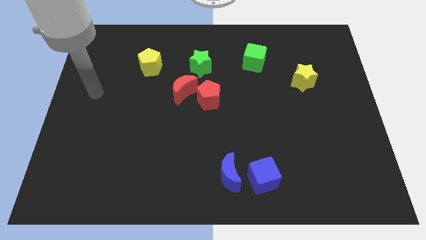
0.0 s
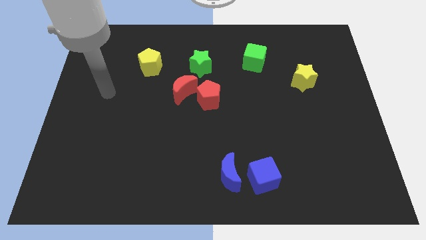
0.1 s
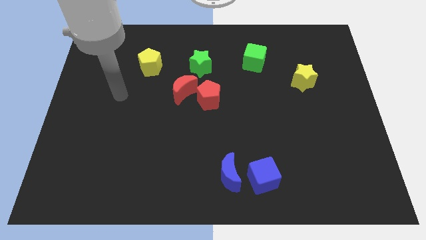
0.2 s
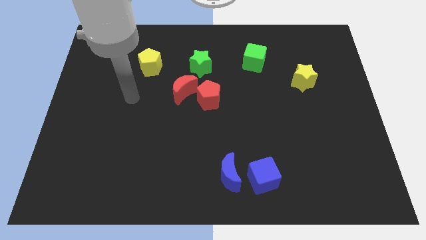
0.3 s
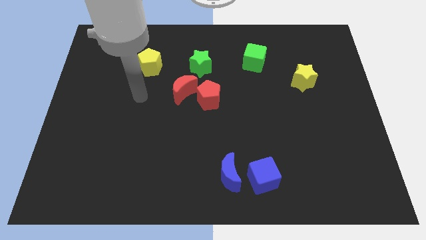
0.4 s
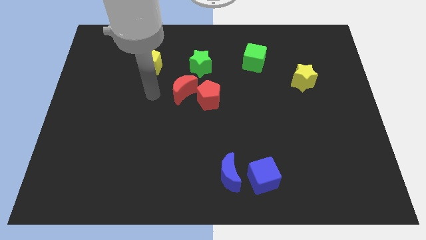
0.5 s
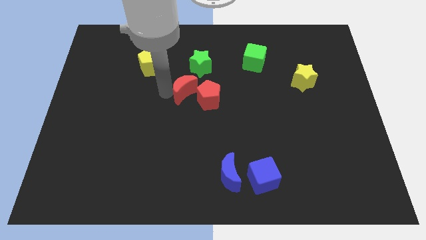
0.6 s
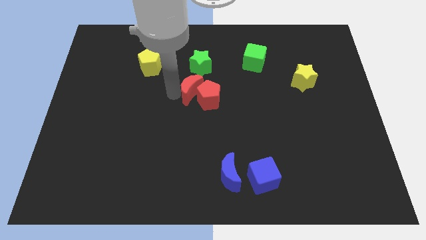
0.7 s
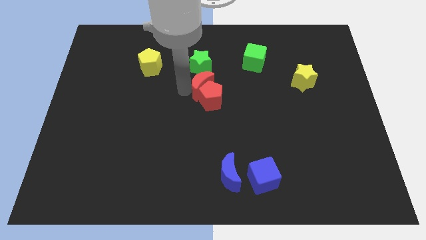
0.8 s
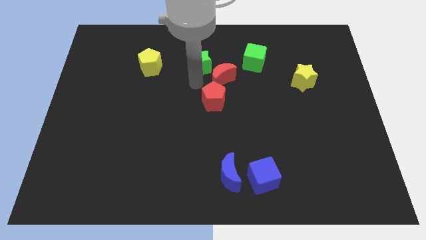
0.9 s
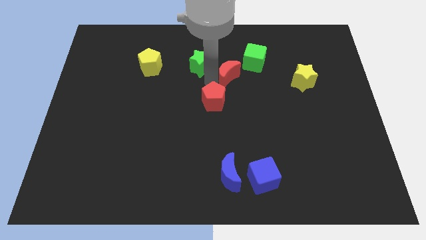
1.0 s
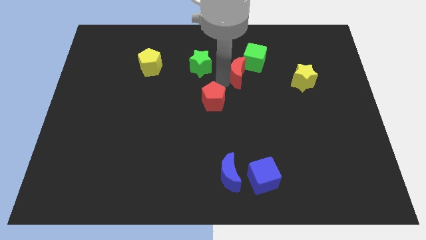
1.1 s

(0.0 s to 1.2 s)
pull the red pentagon apart from the red moon

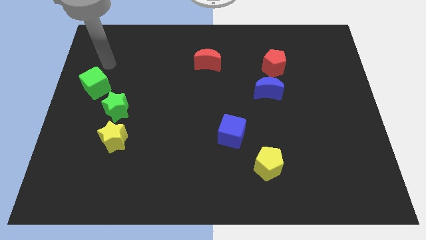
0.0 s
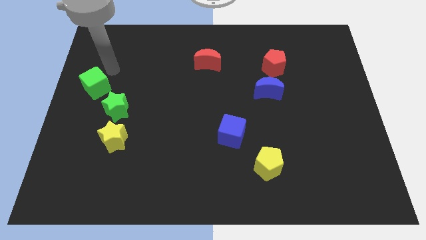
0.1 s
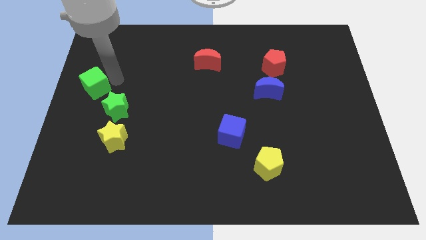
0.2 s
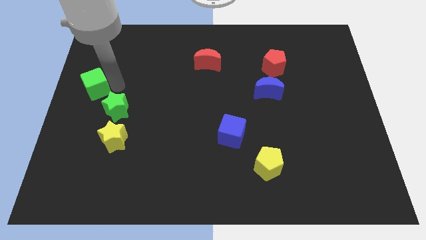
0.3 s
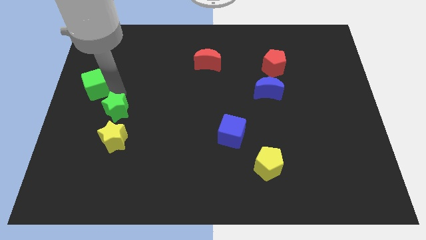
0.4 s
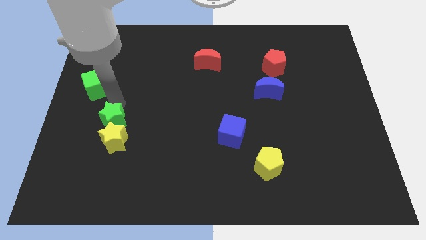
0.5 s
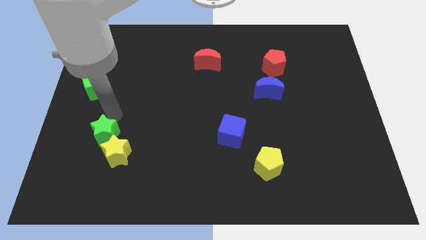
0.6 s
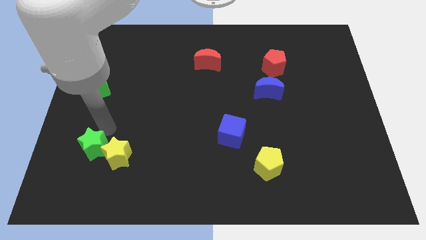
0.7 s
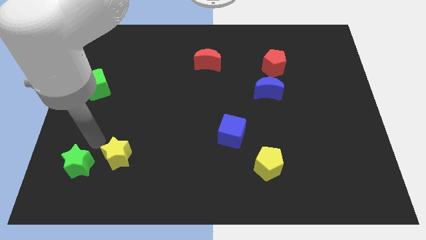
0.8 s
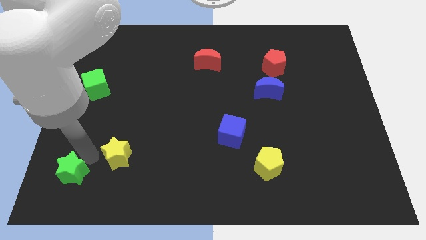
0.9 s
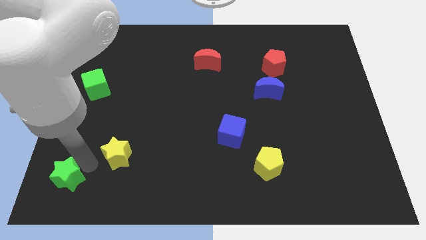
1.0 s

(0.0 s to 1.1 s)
pull the yellow star apart from the green star

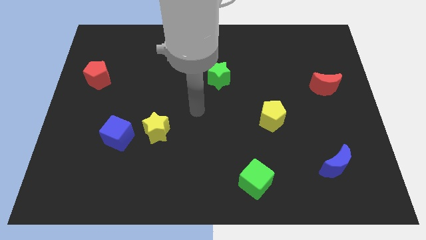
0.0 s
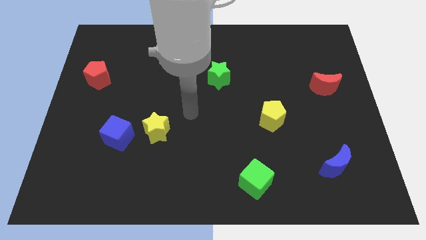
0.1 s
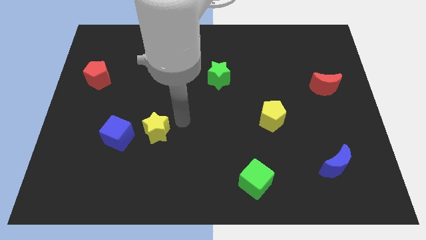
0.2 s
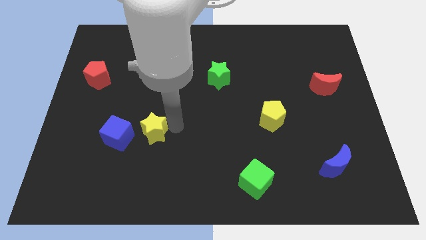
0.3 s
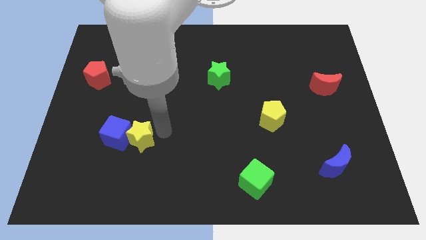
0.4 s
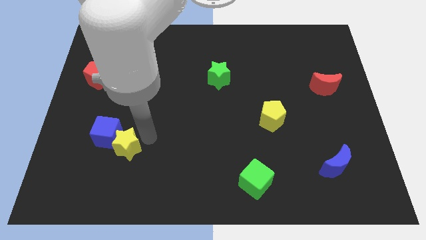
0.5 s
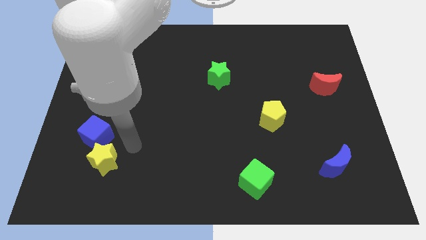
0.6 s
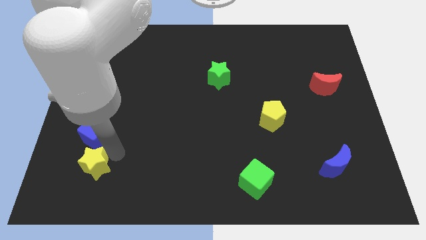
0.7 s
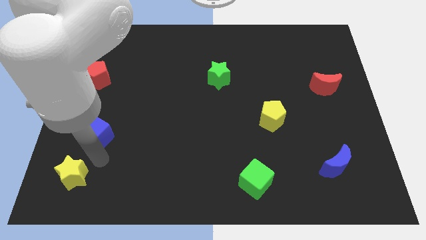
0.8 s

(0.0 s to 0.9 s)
move the blue cube away from the yellow star

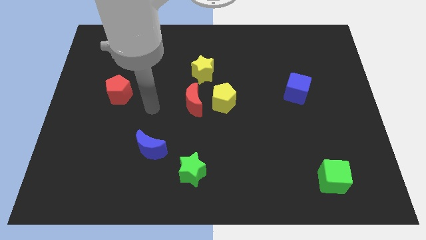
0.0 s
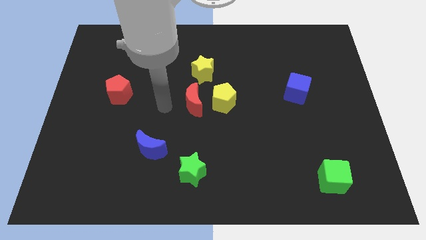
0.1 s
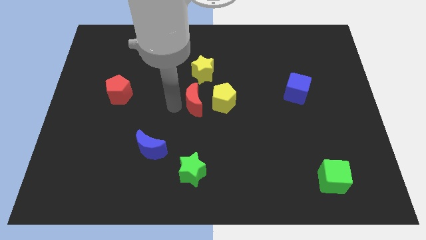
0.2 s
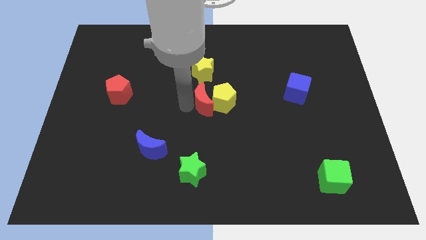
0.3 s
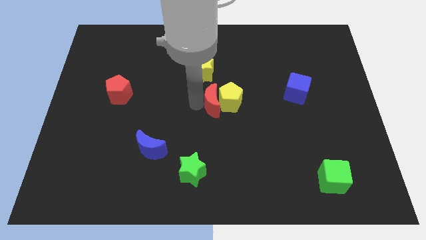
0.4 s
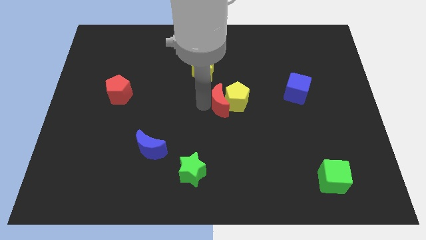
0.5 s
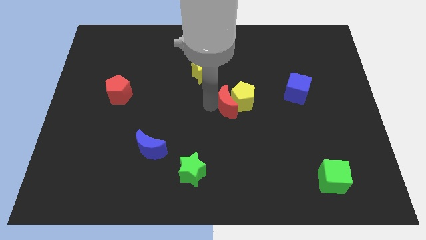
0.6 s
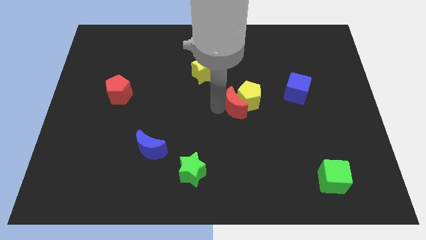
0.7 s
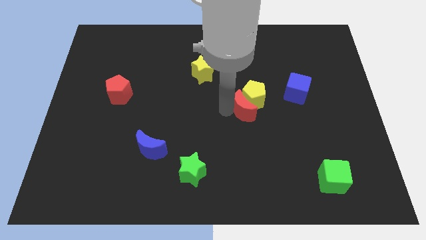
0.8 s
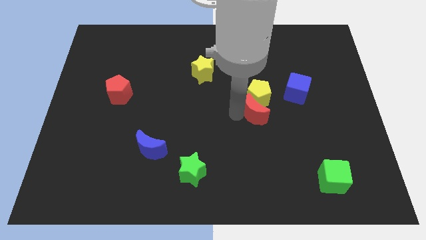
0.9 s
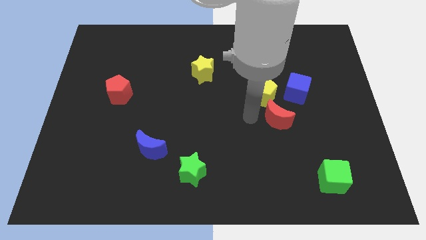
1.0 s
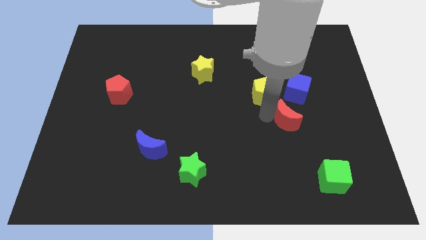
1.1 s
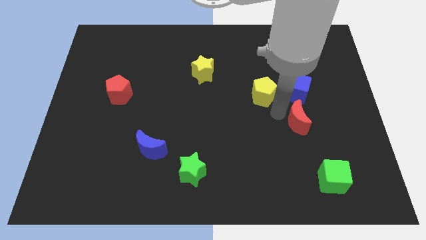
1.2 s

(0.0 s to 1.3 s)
pull the yellow pentagon apart from the red moon

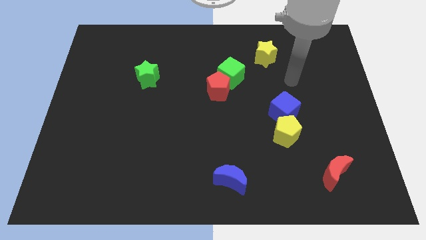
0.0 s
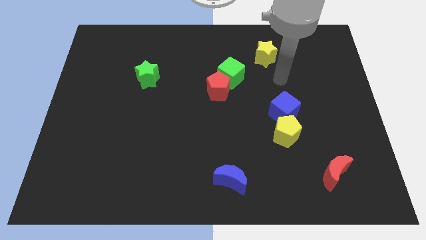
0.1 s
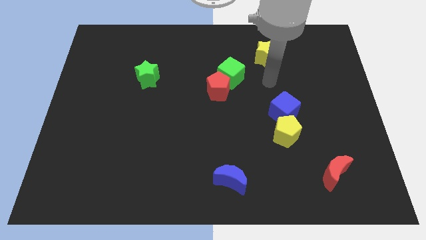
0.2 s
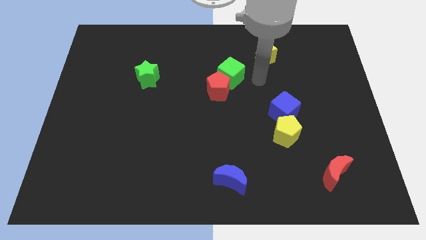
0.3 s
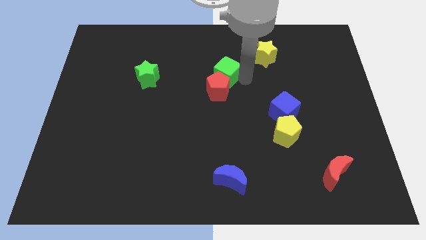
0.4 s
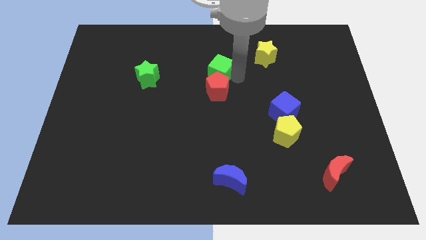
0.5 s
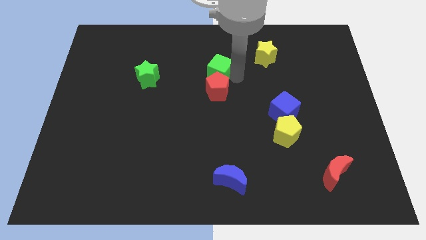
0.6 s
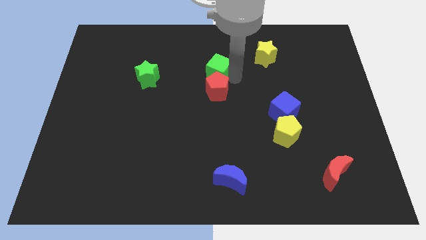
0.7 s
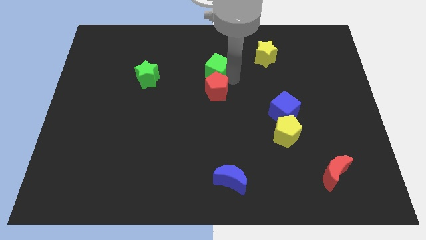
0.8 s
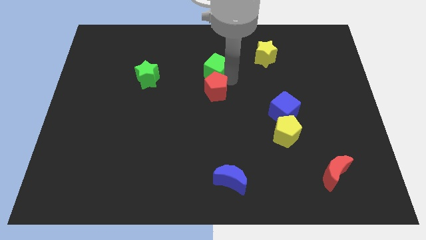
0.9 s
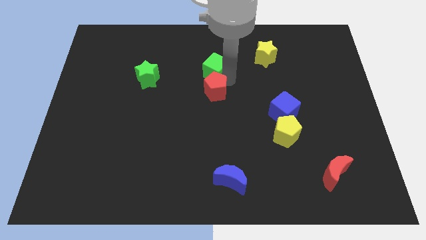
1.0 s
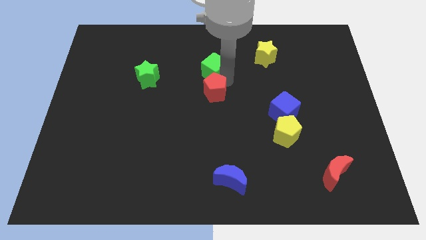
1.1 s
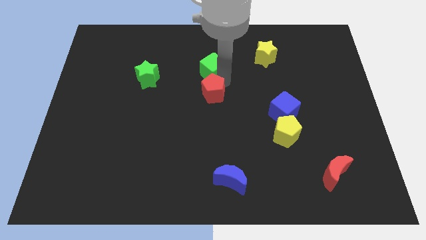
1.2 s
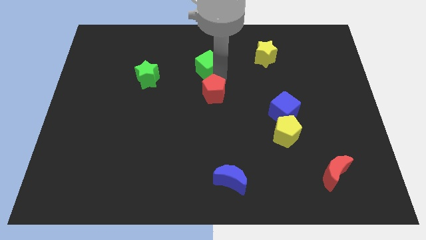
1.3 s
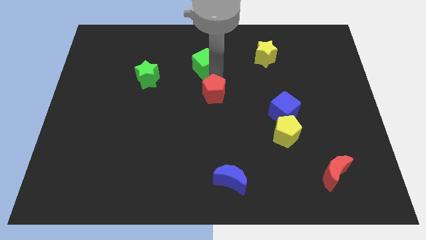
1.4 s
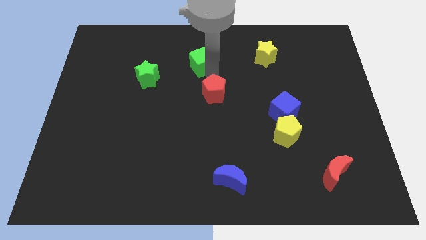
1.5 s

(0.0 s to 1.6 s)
move the red pentagon away from the green cube

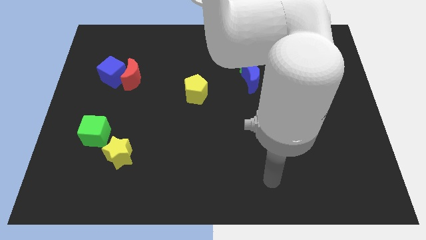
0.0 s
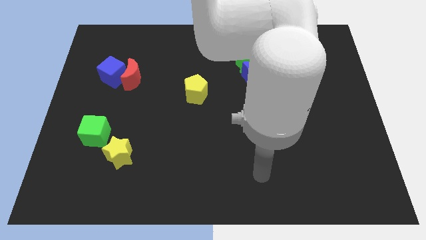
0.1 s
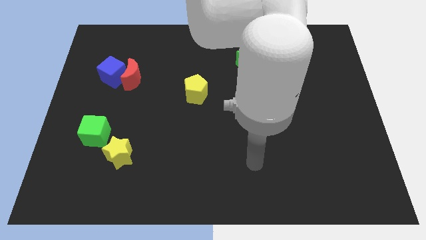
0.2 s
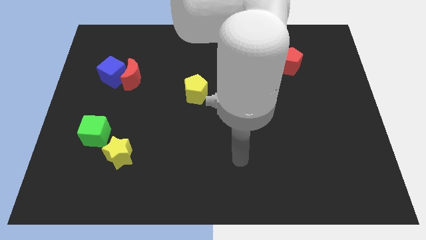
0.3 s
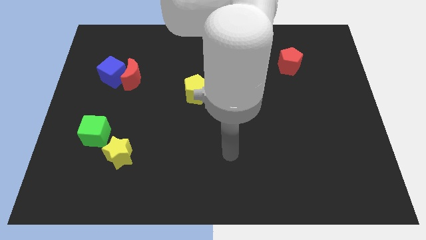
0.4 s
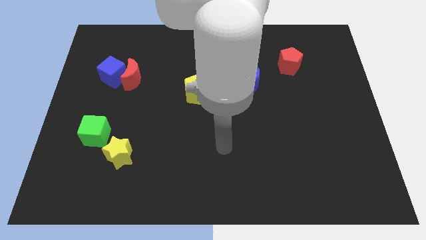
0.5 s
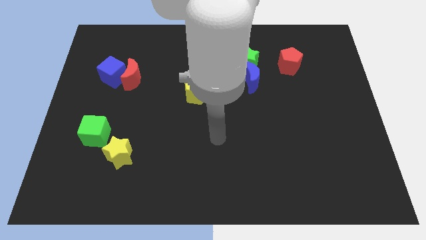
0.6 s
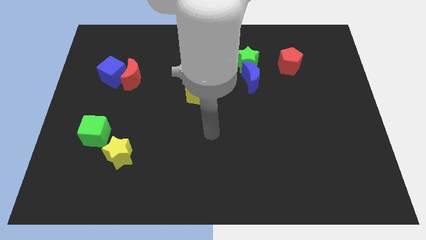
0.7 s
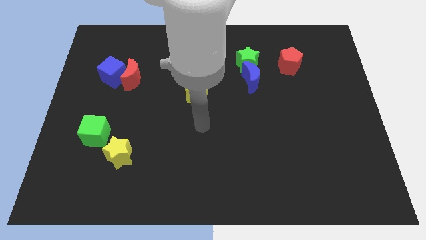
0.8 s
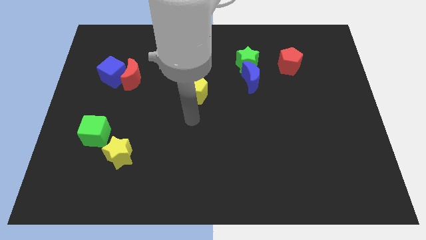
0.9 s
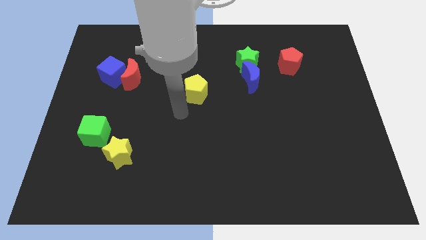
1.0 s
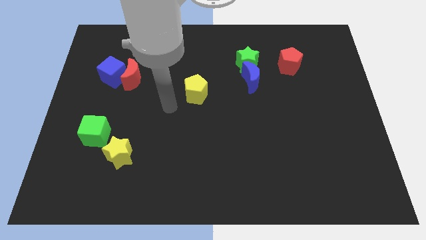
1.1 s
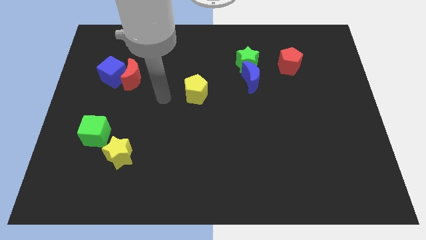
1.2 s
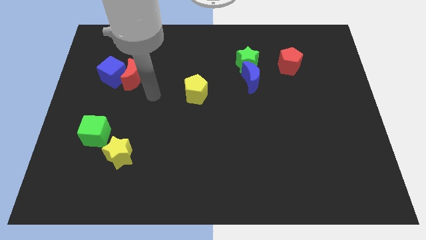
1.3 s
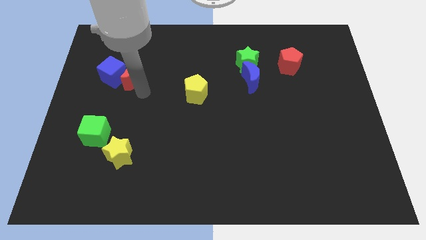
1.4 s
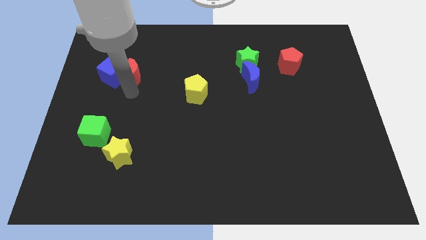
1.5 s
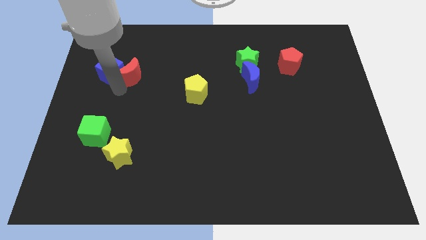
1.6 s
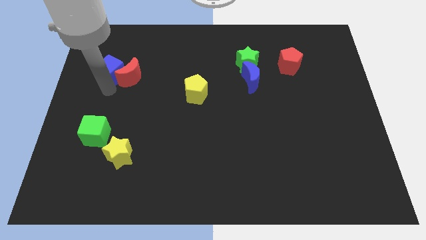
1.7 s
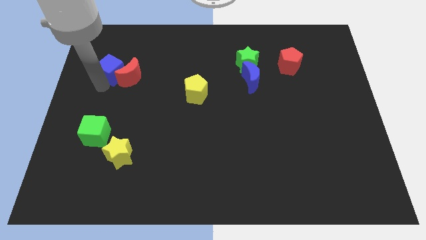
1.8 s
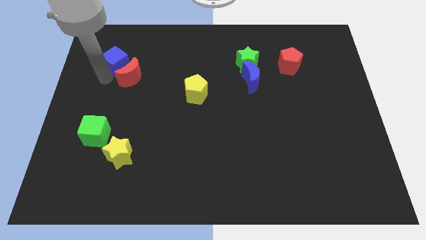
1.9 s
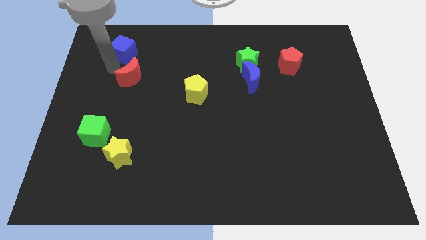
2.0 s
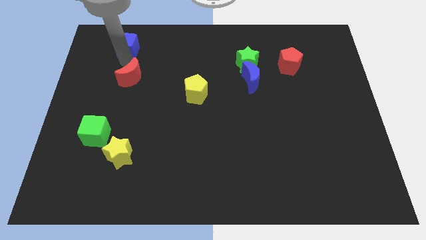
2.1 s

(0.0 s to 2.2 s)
separate the red moon from the blue cube

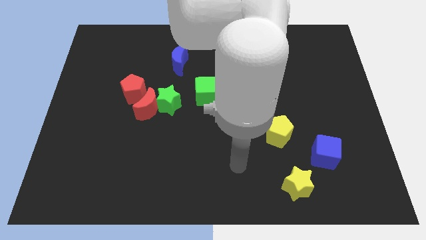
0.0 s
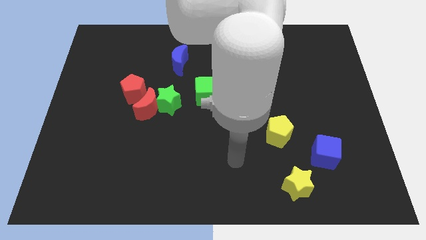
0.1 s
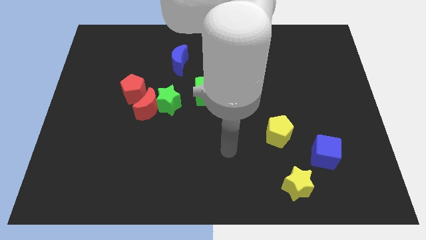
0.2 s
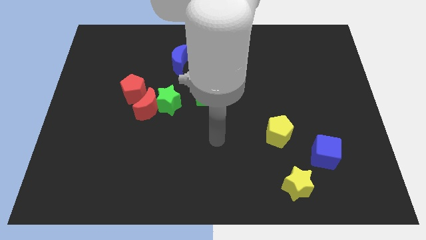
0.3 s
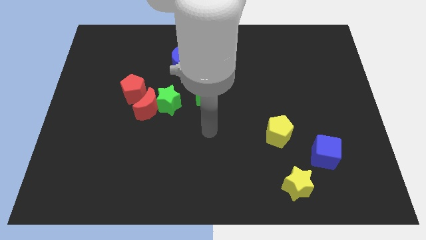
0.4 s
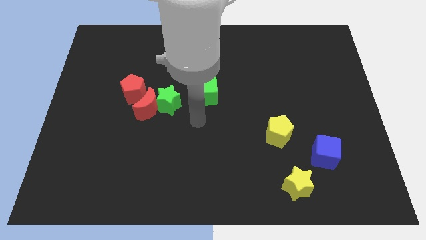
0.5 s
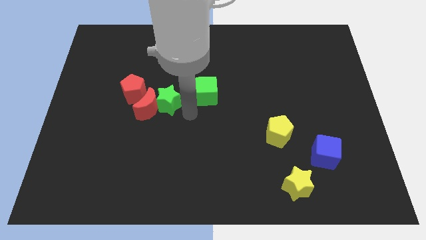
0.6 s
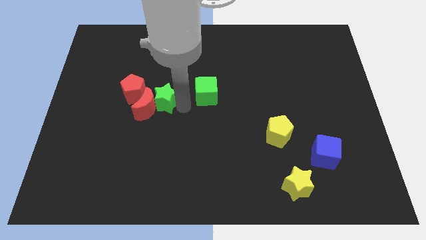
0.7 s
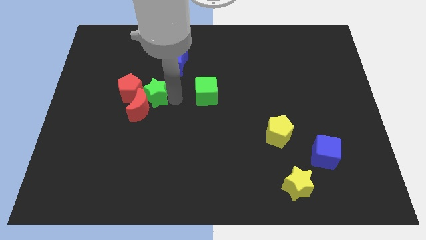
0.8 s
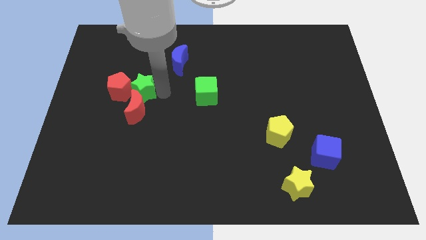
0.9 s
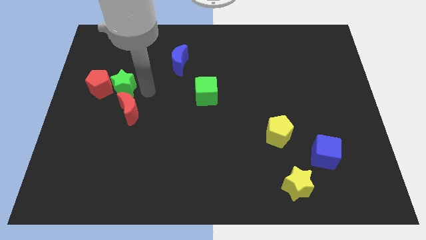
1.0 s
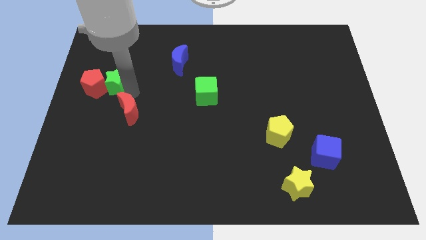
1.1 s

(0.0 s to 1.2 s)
pull the red moon apart from the green star and red pentagon
